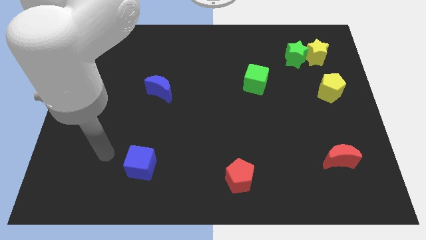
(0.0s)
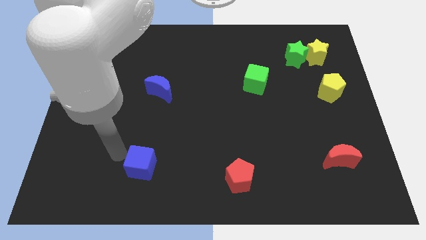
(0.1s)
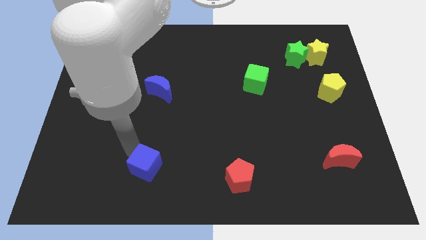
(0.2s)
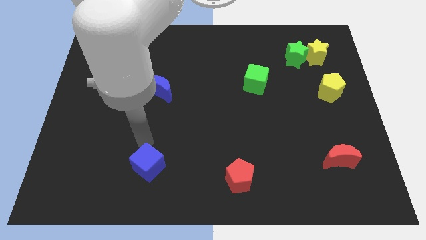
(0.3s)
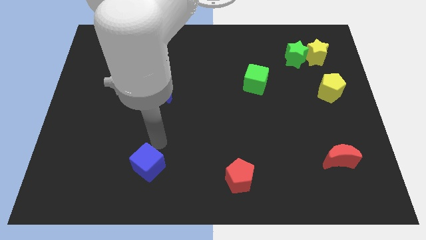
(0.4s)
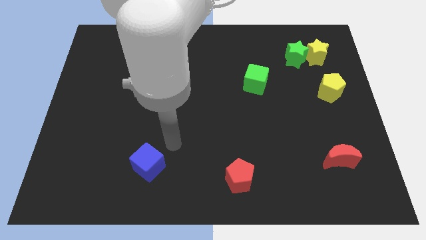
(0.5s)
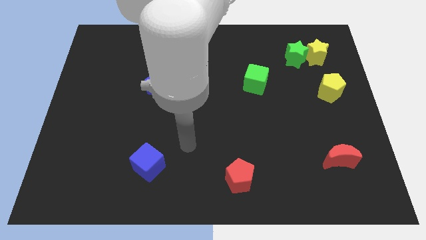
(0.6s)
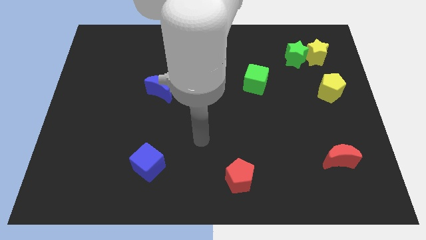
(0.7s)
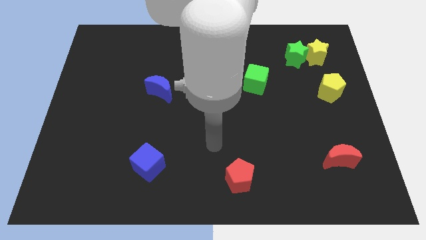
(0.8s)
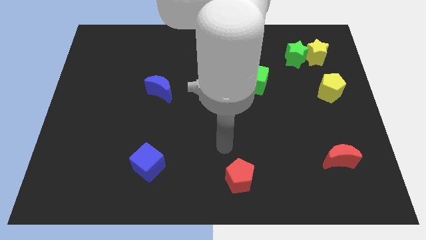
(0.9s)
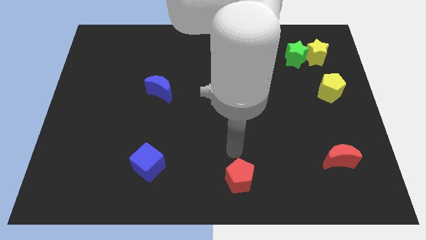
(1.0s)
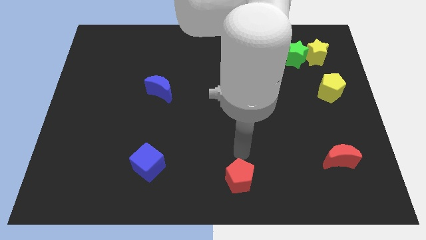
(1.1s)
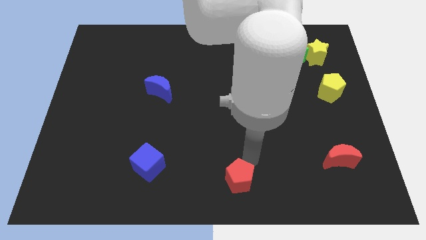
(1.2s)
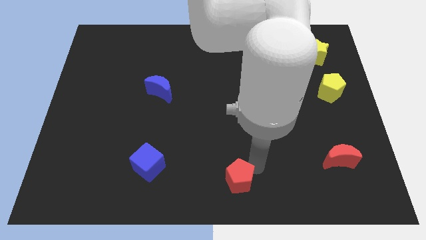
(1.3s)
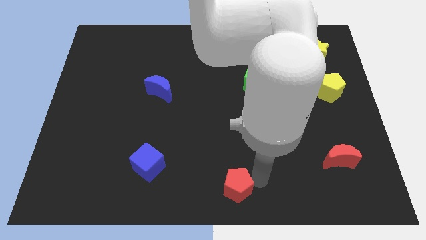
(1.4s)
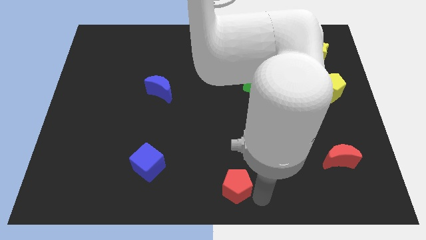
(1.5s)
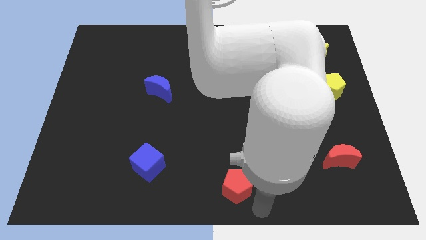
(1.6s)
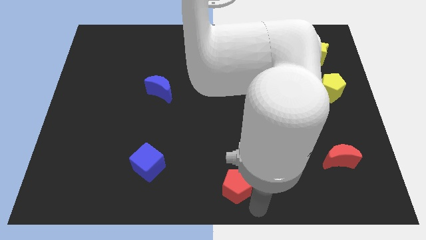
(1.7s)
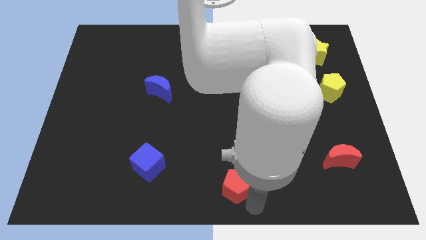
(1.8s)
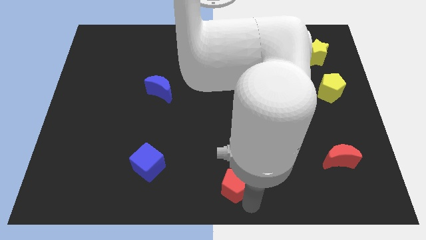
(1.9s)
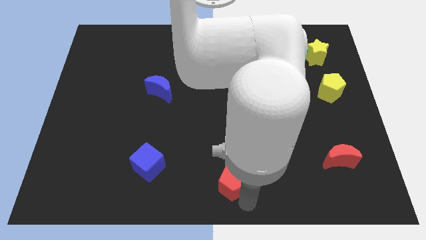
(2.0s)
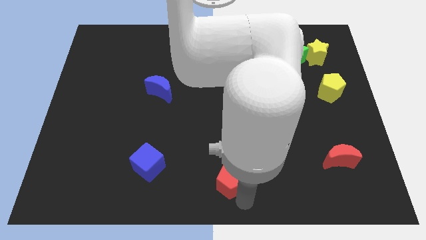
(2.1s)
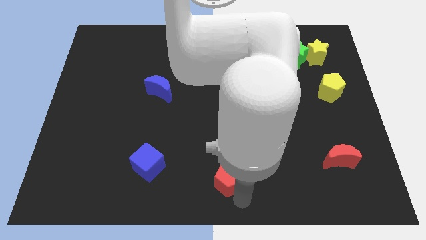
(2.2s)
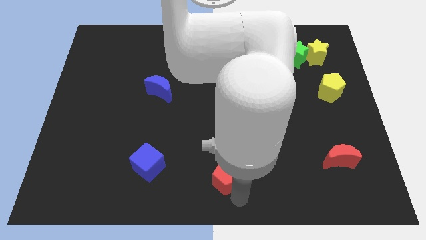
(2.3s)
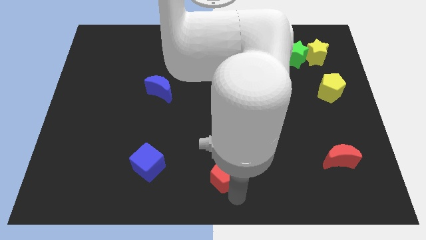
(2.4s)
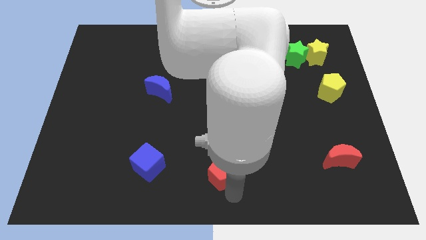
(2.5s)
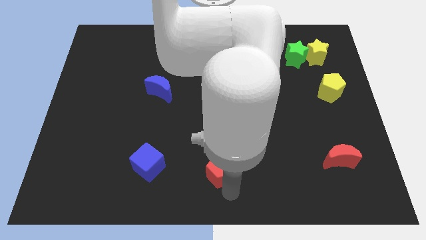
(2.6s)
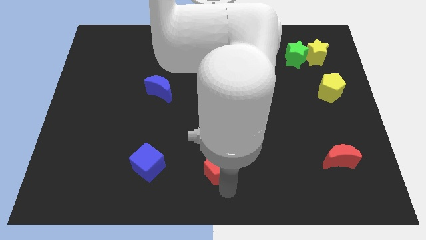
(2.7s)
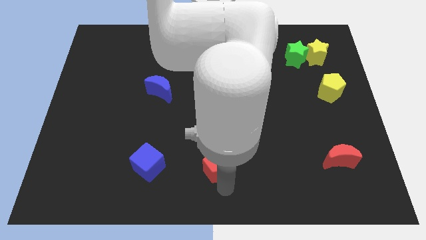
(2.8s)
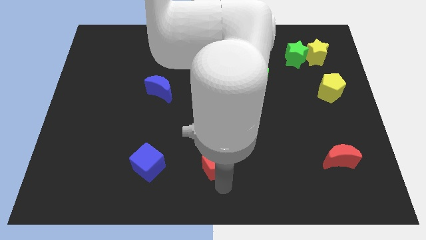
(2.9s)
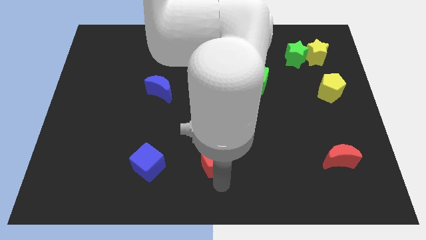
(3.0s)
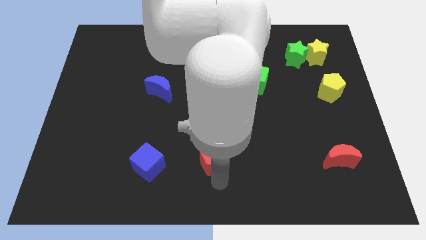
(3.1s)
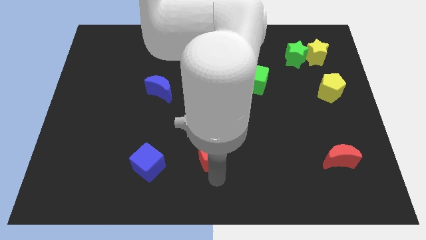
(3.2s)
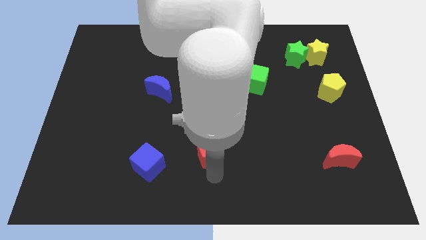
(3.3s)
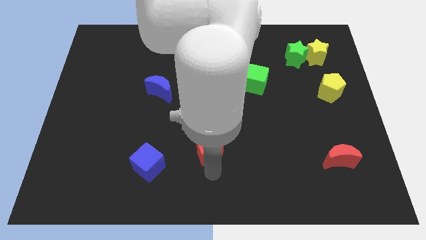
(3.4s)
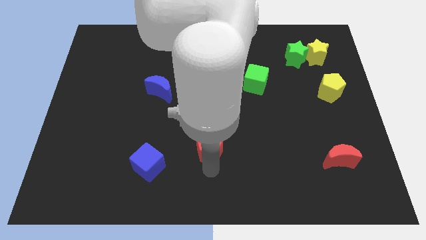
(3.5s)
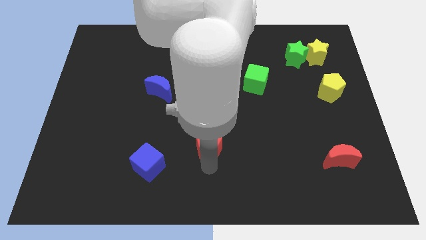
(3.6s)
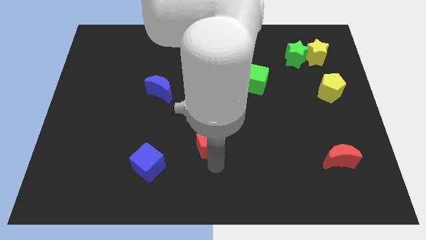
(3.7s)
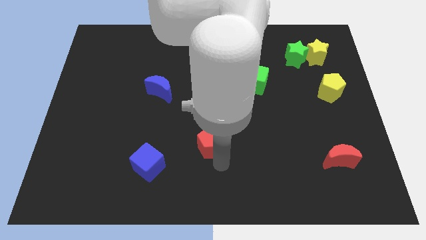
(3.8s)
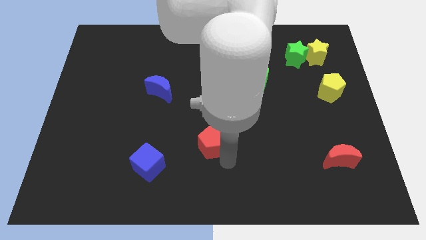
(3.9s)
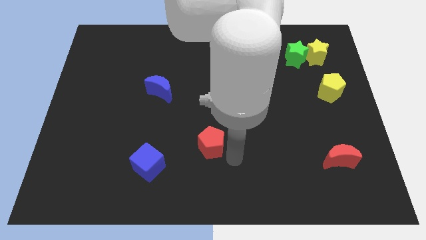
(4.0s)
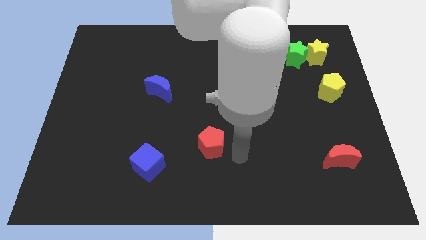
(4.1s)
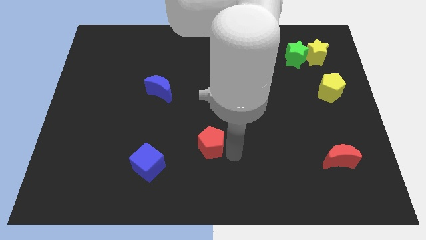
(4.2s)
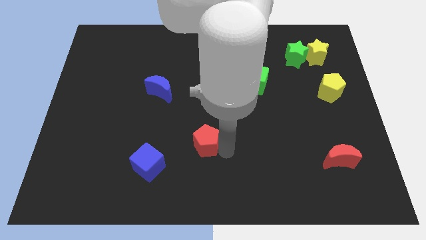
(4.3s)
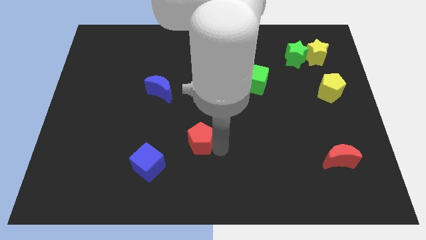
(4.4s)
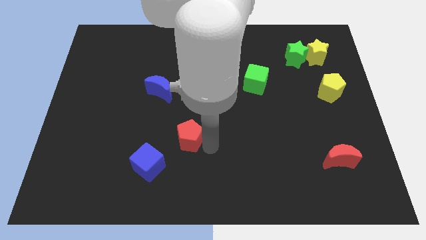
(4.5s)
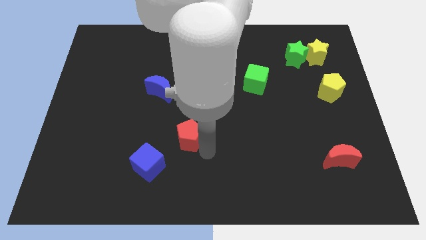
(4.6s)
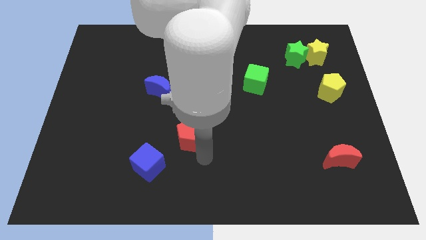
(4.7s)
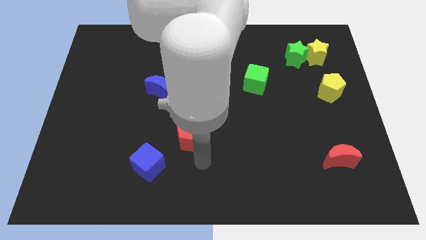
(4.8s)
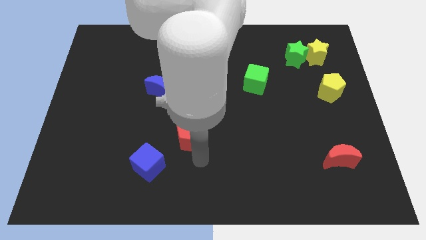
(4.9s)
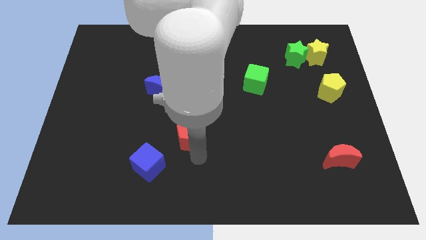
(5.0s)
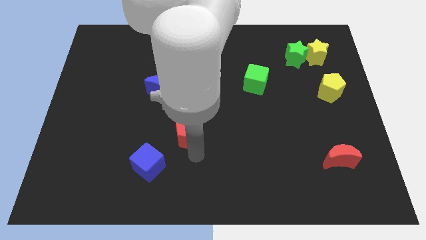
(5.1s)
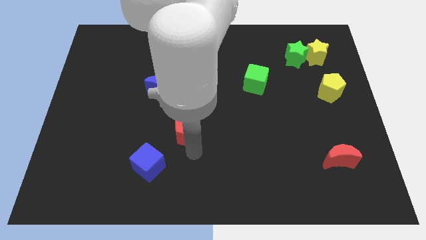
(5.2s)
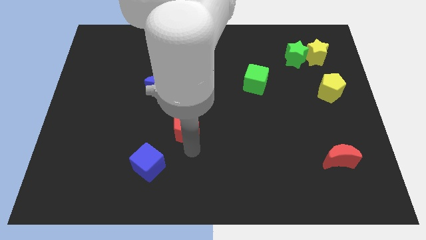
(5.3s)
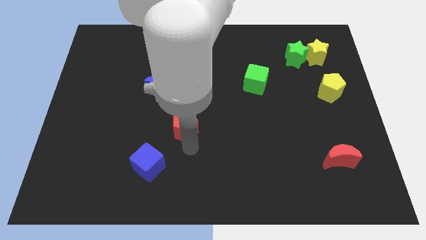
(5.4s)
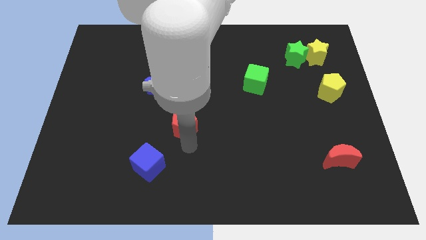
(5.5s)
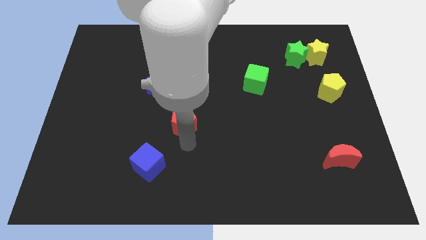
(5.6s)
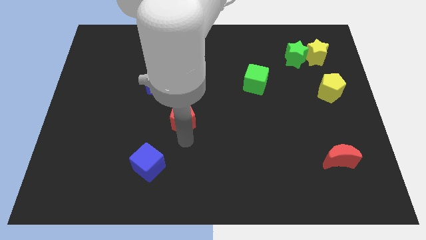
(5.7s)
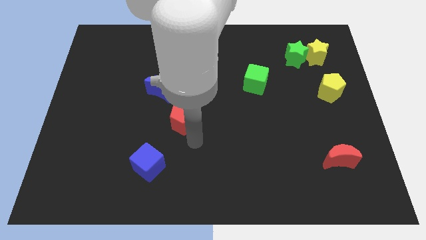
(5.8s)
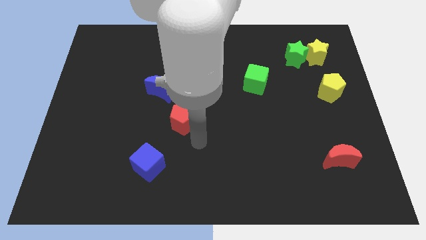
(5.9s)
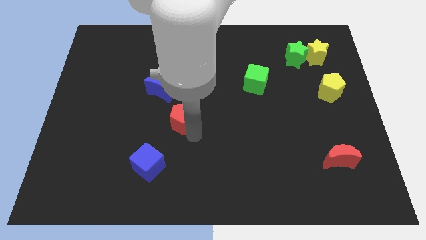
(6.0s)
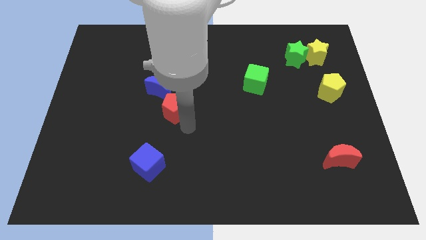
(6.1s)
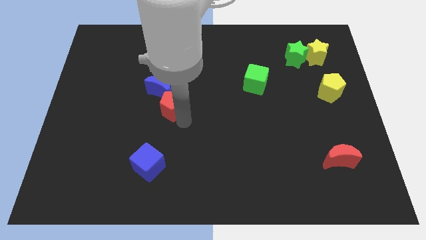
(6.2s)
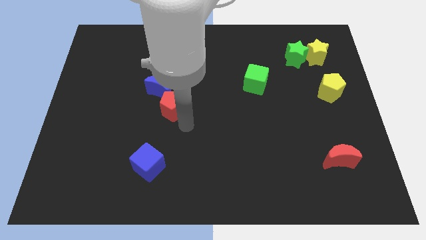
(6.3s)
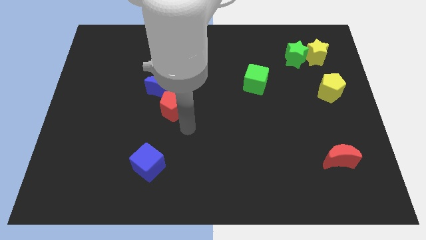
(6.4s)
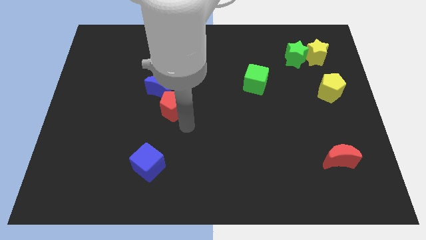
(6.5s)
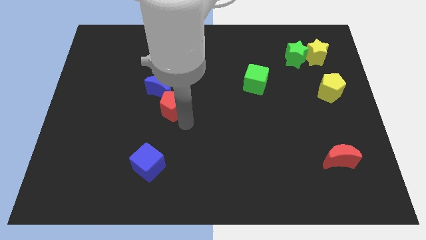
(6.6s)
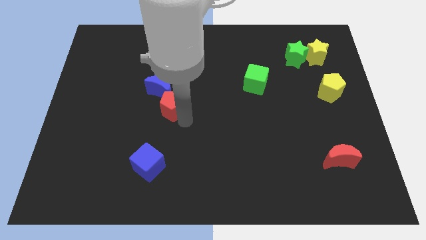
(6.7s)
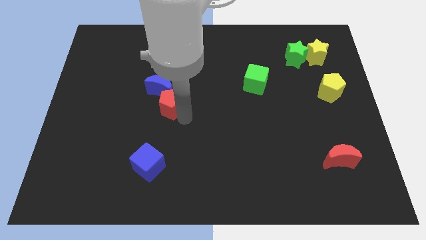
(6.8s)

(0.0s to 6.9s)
push the red pentagon next to the blue moon

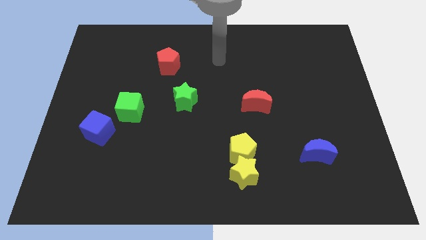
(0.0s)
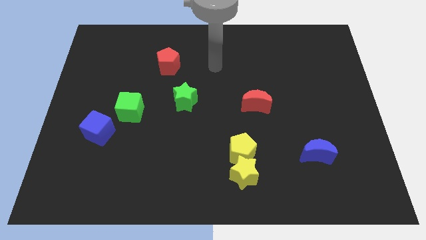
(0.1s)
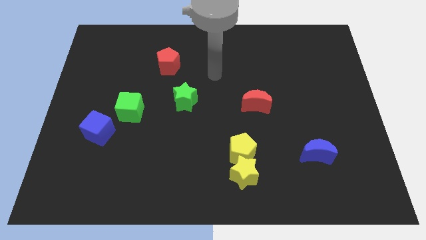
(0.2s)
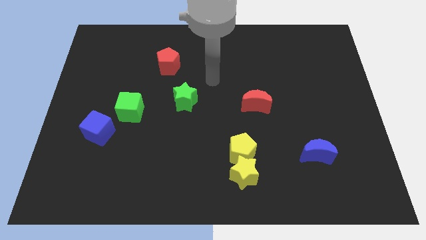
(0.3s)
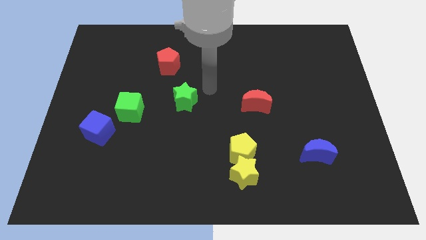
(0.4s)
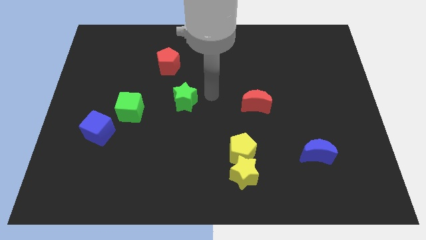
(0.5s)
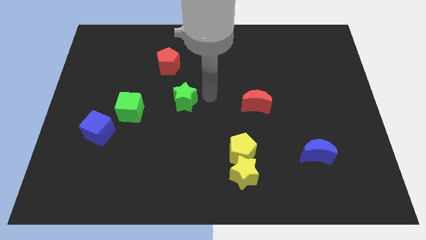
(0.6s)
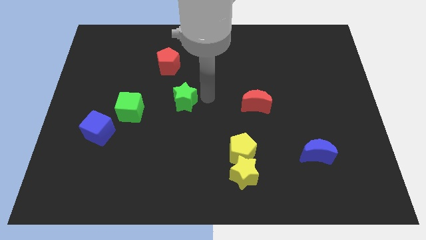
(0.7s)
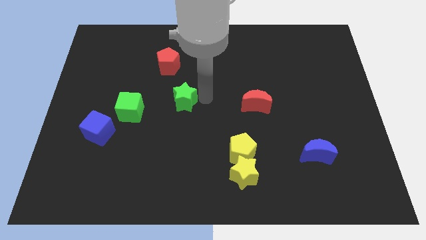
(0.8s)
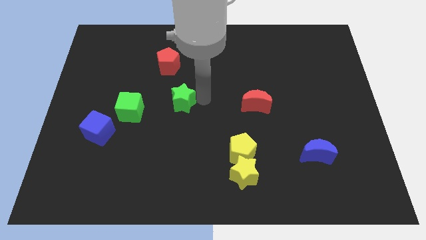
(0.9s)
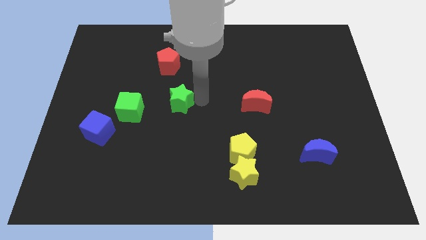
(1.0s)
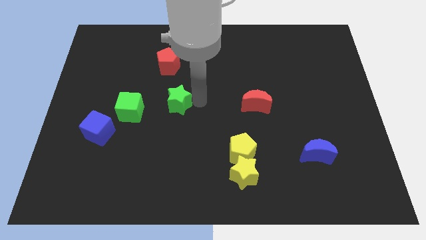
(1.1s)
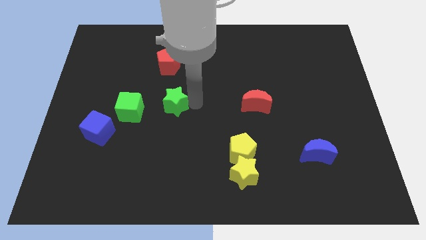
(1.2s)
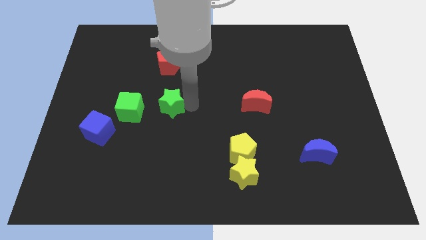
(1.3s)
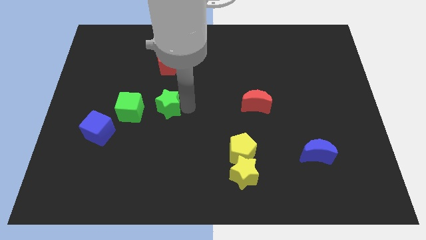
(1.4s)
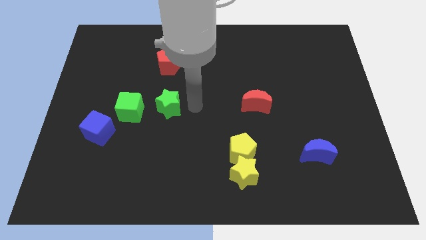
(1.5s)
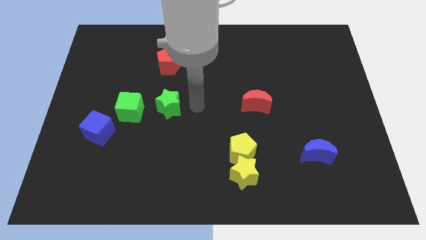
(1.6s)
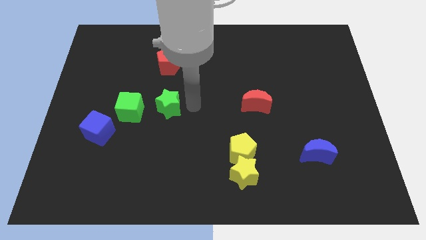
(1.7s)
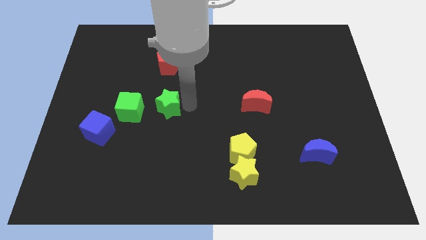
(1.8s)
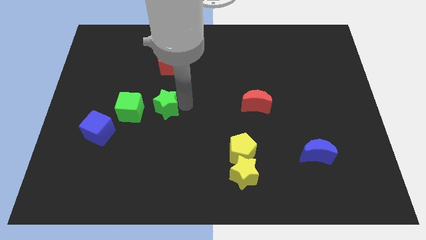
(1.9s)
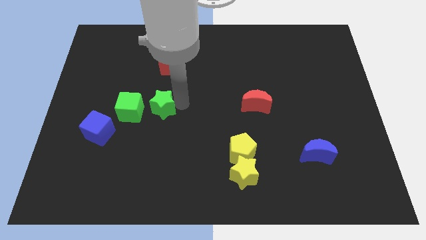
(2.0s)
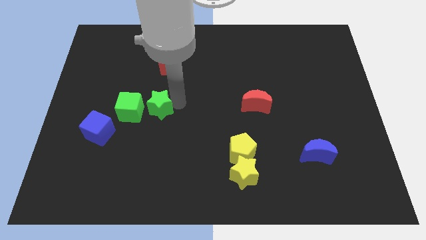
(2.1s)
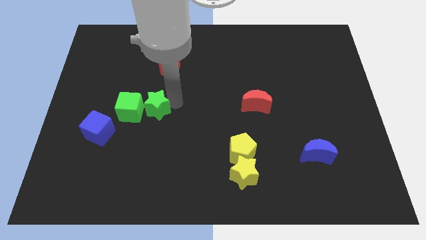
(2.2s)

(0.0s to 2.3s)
push the green star towards the green cube
